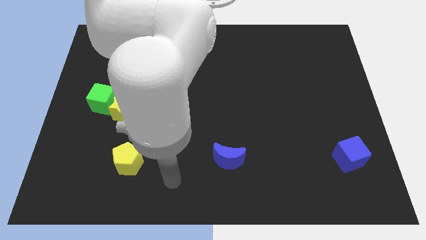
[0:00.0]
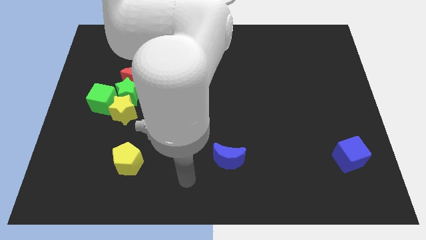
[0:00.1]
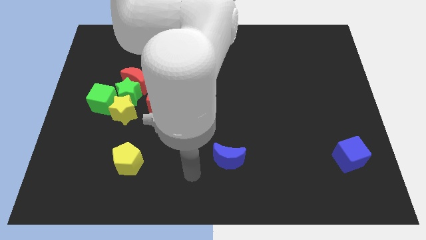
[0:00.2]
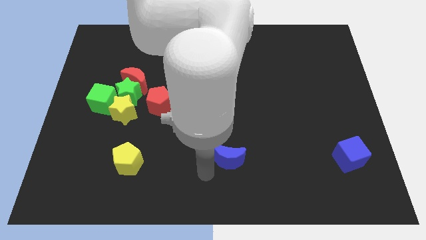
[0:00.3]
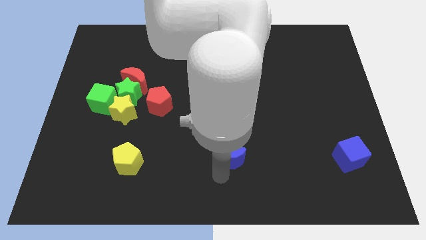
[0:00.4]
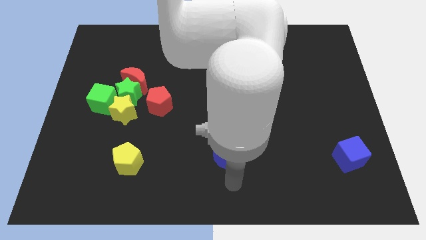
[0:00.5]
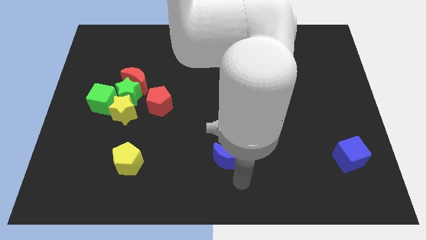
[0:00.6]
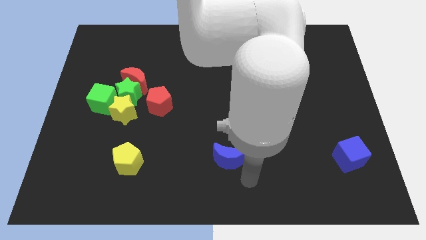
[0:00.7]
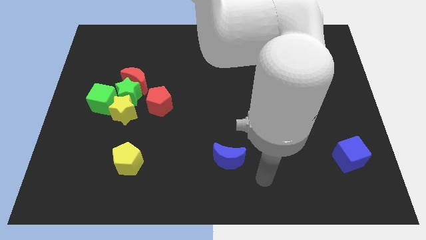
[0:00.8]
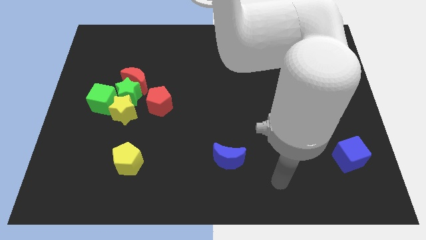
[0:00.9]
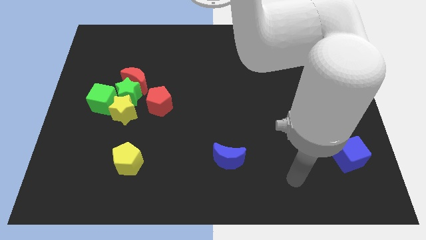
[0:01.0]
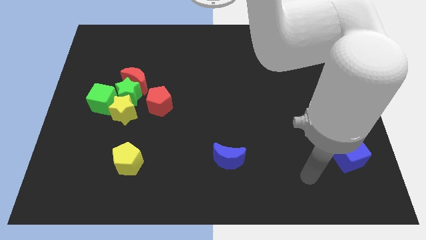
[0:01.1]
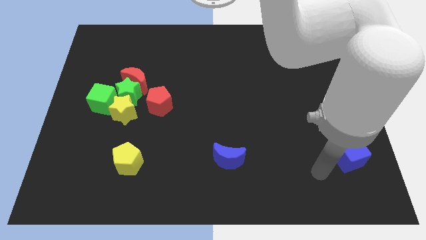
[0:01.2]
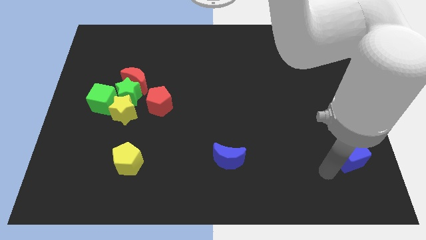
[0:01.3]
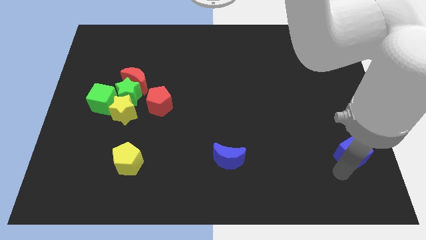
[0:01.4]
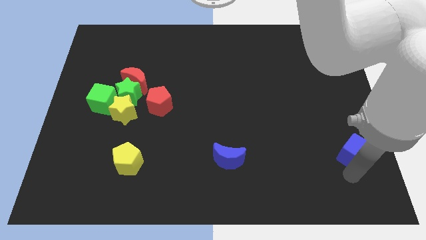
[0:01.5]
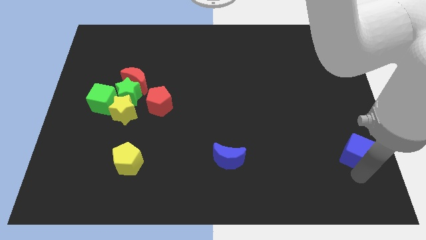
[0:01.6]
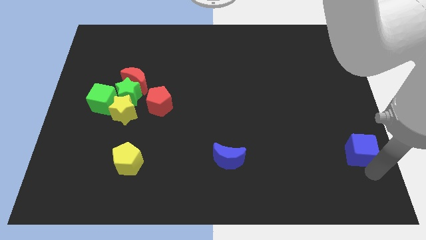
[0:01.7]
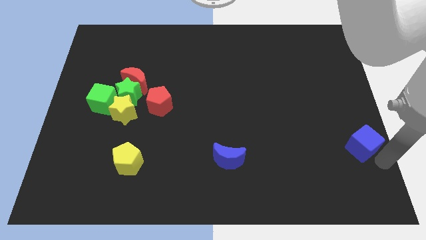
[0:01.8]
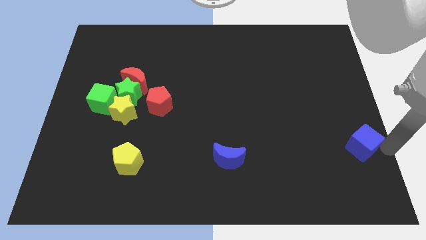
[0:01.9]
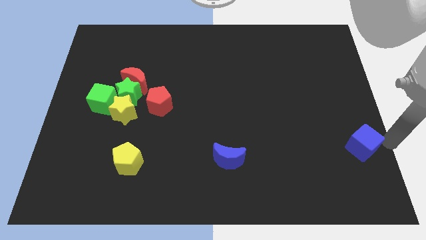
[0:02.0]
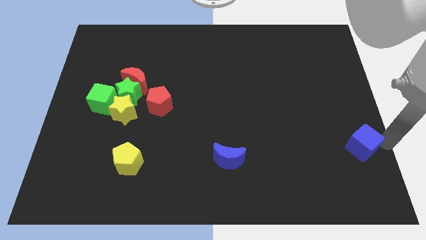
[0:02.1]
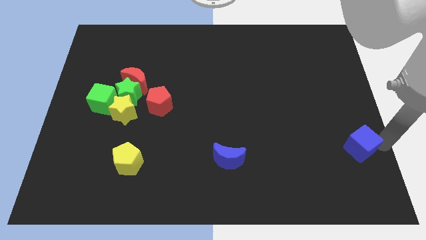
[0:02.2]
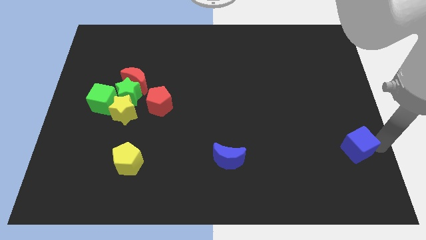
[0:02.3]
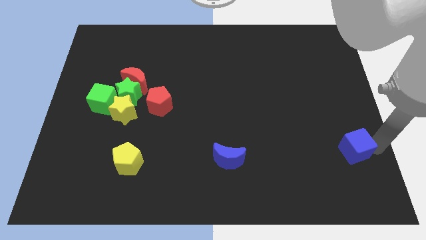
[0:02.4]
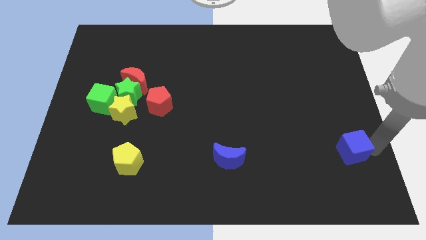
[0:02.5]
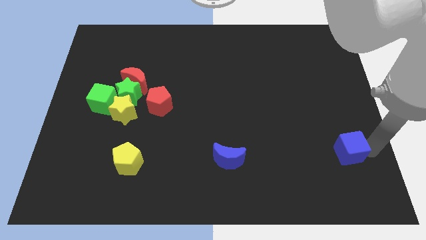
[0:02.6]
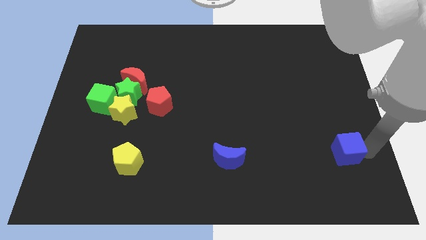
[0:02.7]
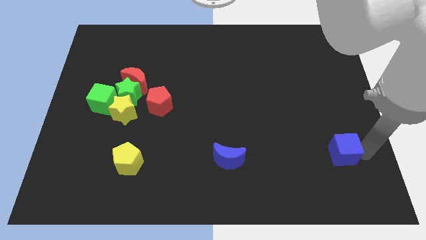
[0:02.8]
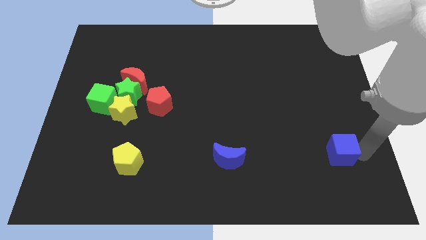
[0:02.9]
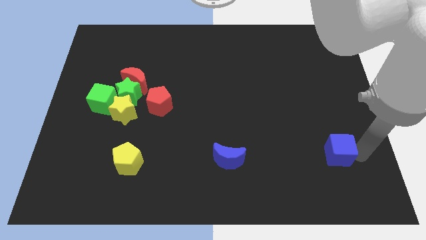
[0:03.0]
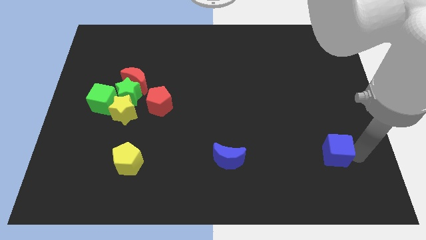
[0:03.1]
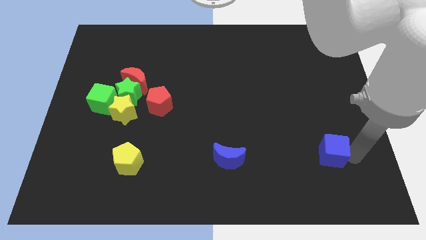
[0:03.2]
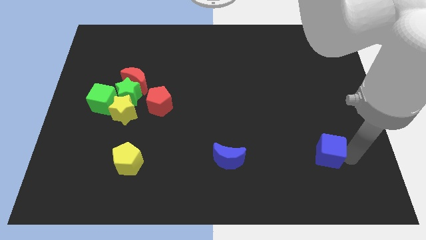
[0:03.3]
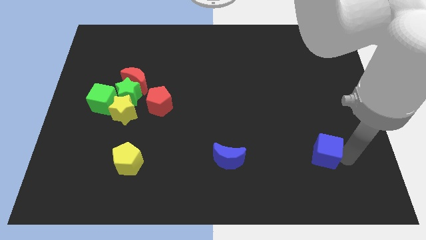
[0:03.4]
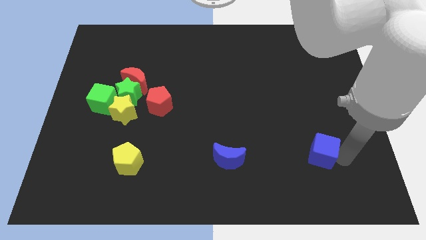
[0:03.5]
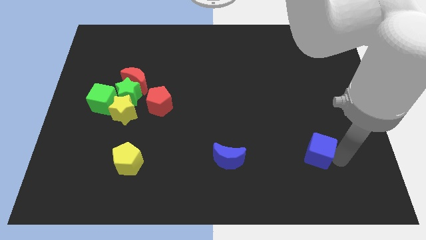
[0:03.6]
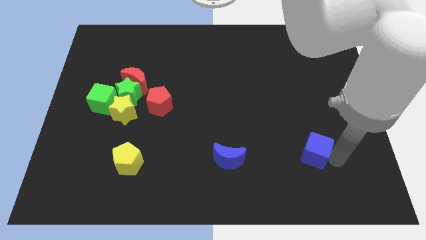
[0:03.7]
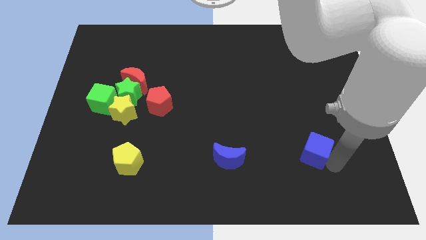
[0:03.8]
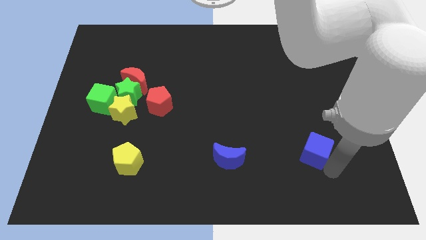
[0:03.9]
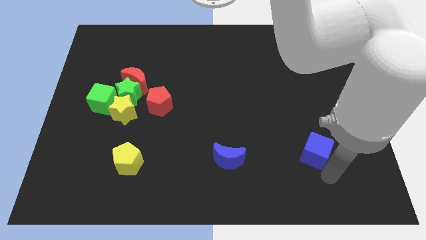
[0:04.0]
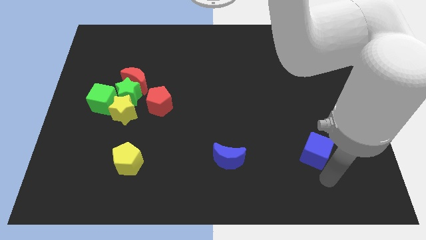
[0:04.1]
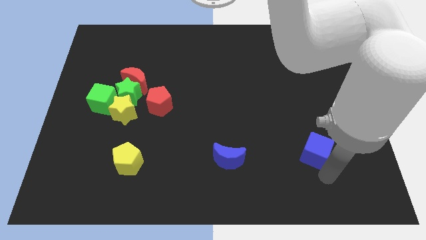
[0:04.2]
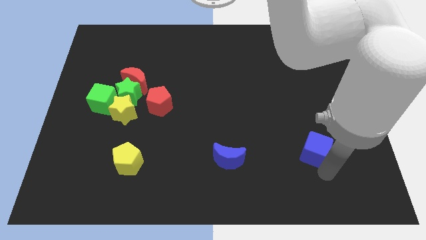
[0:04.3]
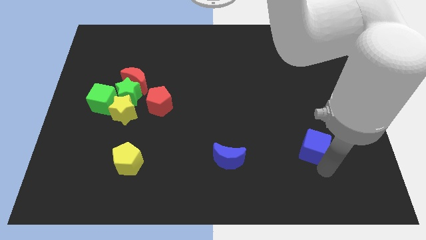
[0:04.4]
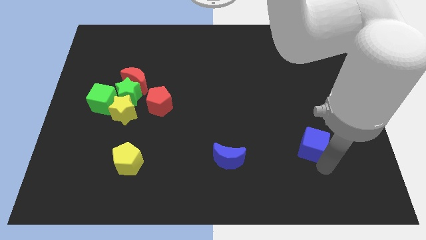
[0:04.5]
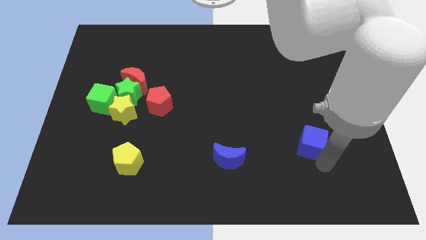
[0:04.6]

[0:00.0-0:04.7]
push the blue cube a bit upwards and left diagonally

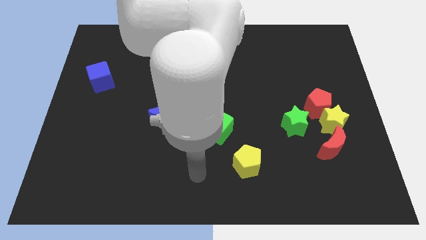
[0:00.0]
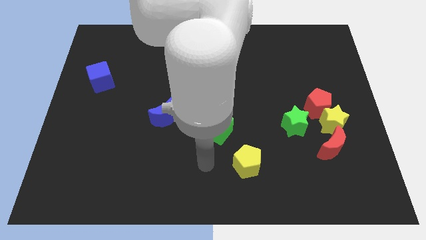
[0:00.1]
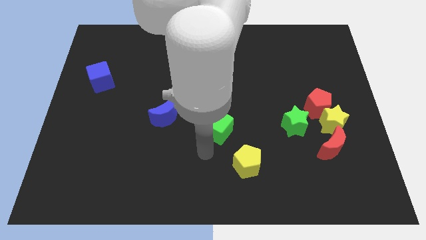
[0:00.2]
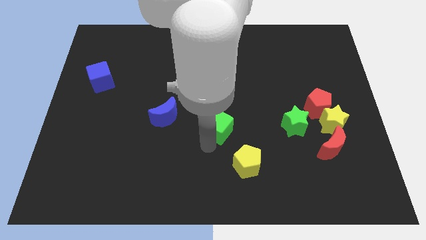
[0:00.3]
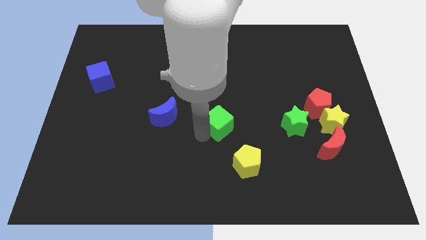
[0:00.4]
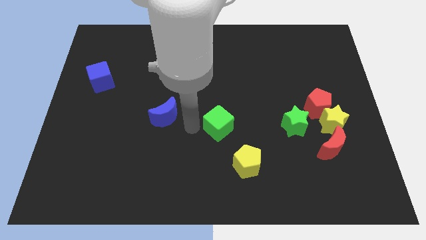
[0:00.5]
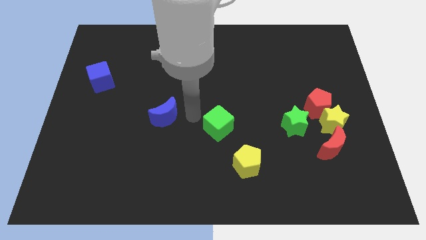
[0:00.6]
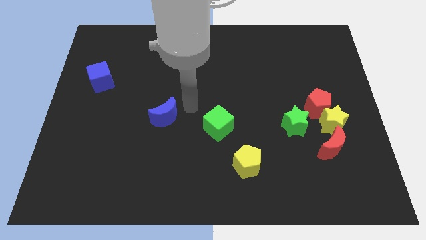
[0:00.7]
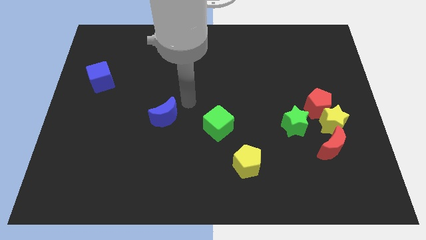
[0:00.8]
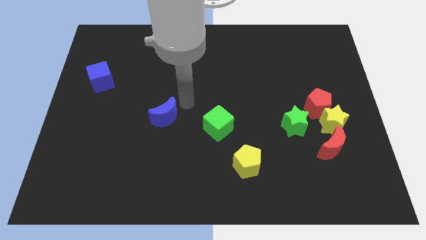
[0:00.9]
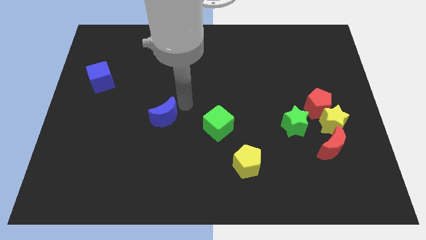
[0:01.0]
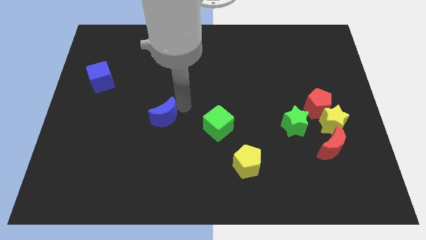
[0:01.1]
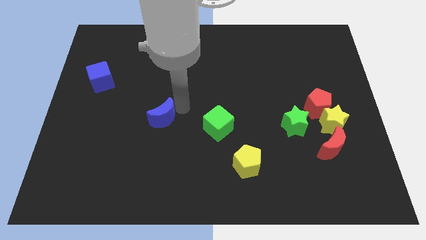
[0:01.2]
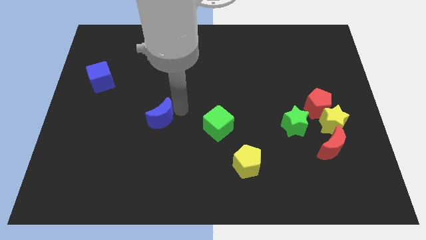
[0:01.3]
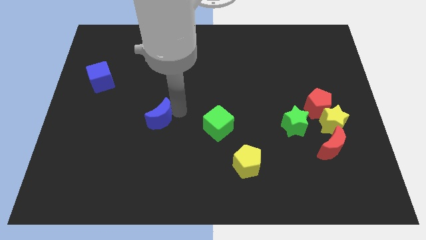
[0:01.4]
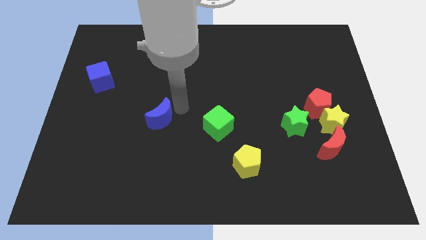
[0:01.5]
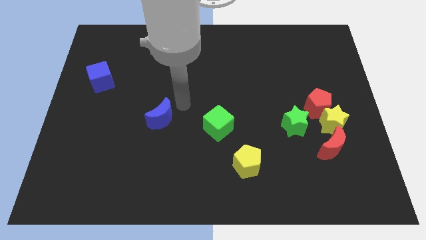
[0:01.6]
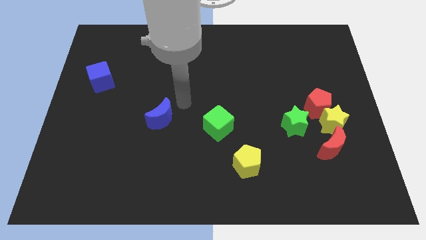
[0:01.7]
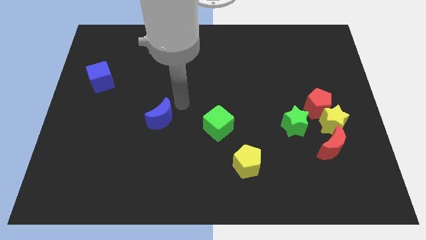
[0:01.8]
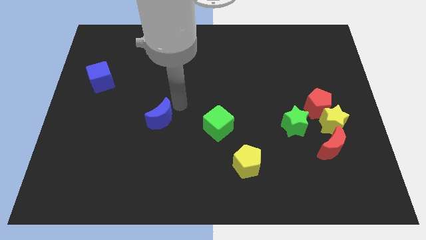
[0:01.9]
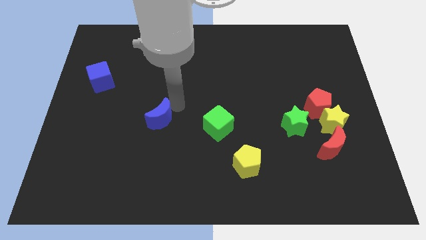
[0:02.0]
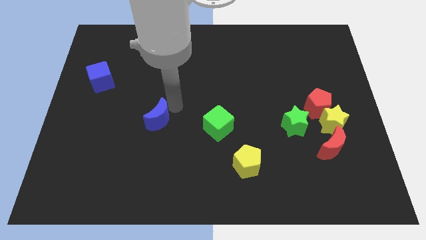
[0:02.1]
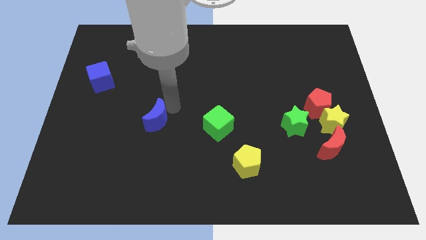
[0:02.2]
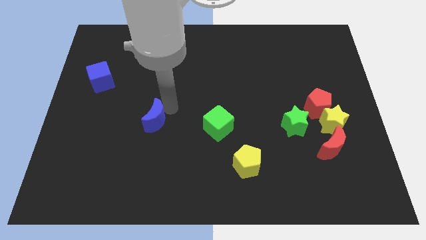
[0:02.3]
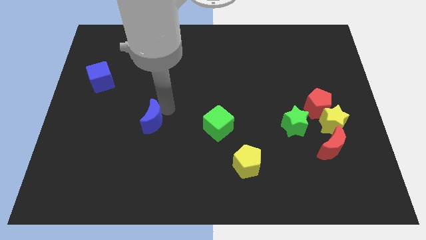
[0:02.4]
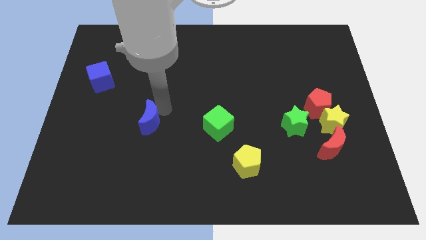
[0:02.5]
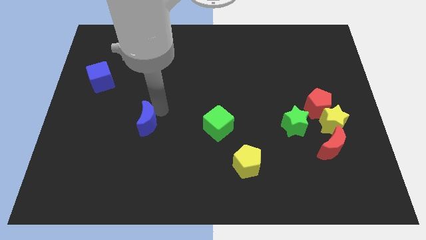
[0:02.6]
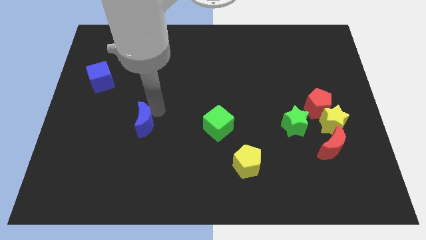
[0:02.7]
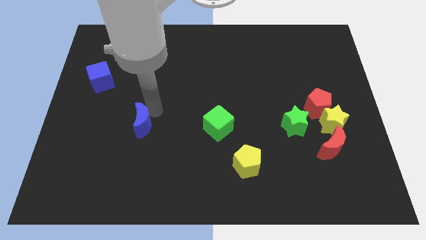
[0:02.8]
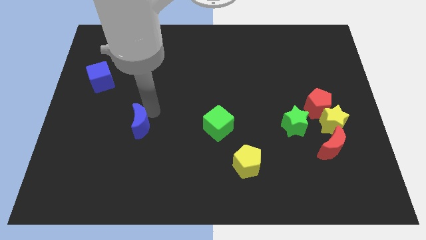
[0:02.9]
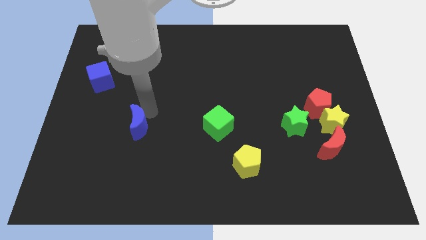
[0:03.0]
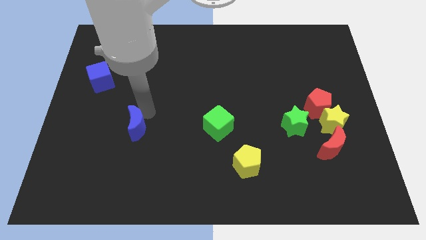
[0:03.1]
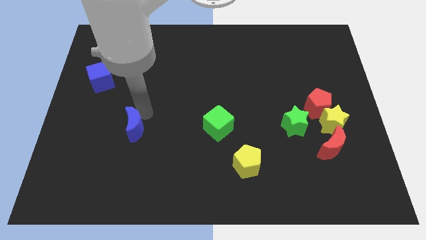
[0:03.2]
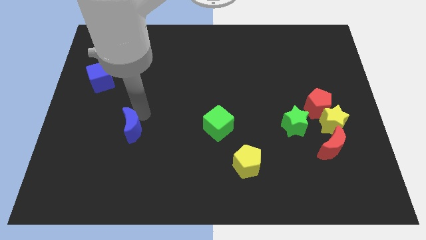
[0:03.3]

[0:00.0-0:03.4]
push the blue moon a little bit down and left
